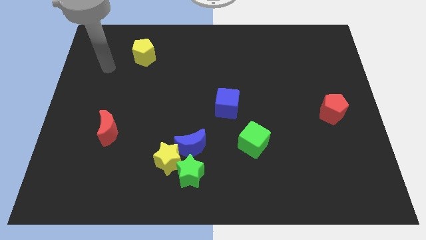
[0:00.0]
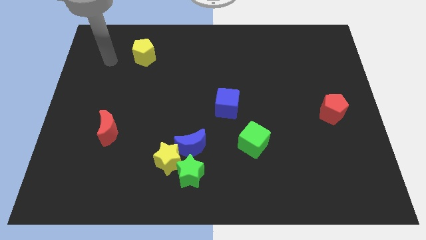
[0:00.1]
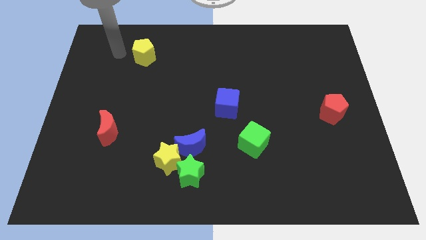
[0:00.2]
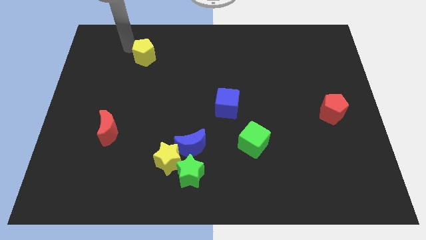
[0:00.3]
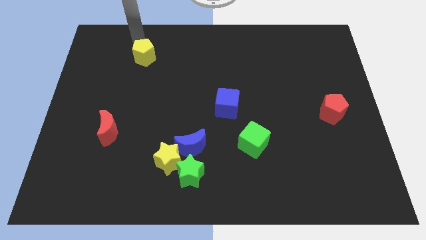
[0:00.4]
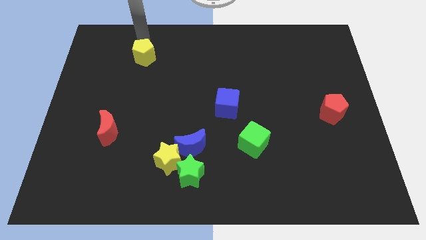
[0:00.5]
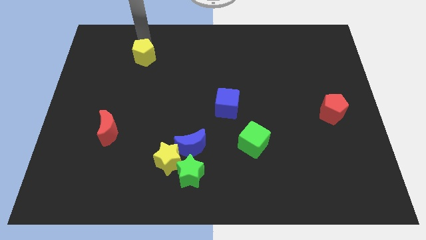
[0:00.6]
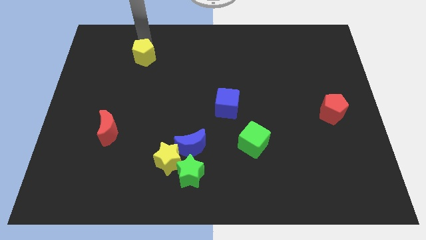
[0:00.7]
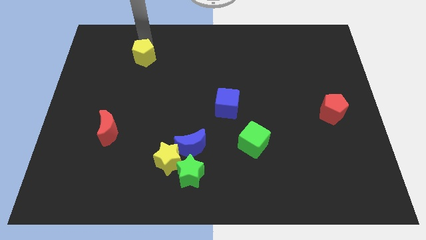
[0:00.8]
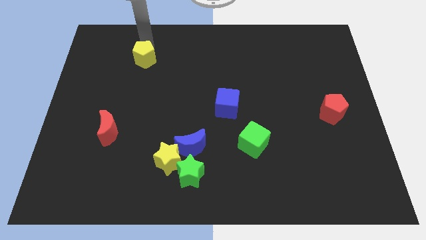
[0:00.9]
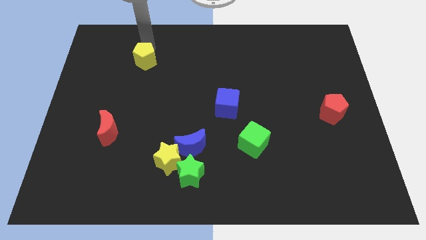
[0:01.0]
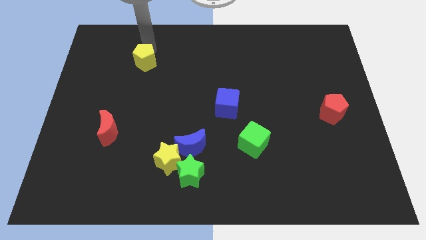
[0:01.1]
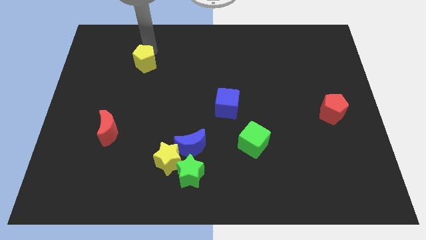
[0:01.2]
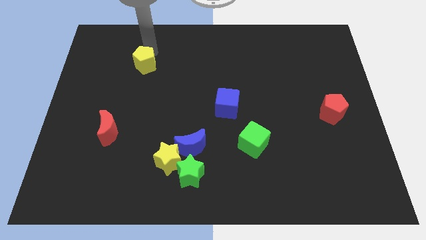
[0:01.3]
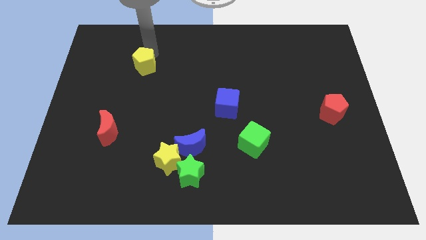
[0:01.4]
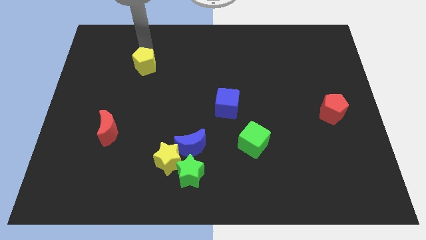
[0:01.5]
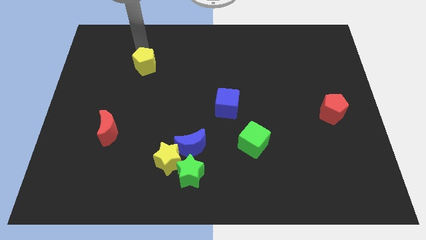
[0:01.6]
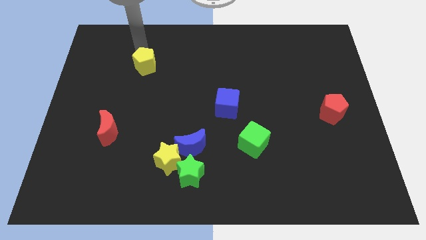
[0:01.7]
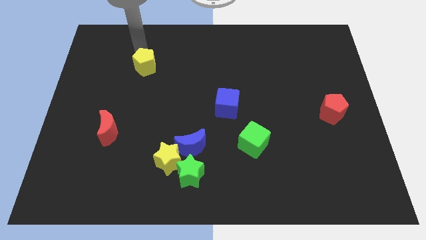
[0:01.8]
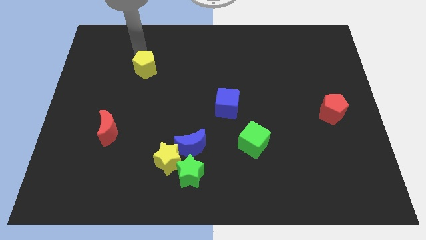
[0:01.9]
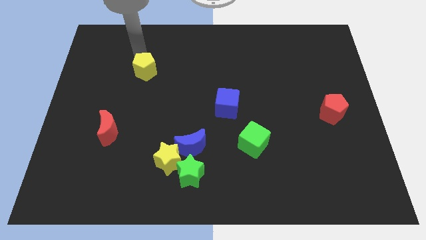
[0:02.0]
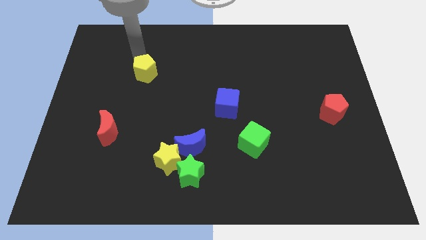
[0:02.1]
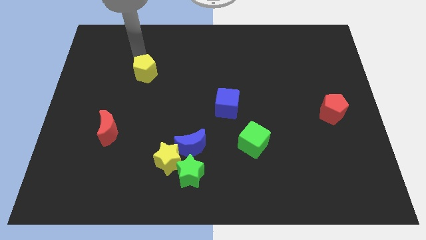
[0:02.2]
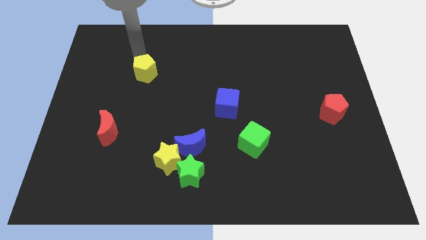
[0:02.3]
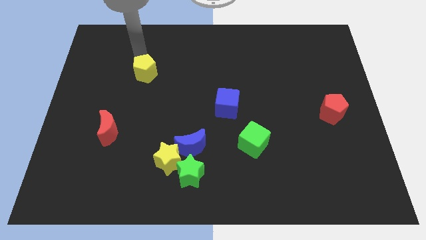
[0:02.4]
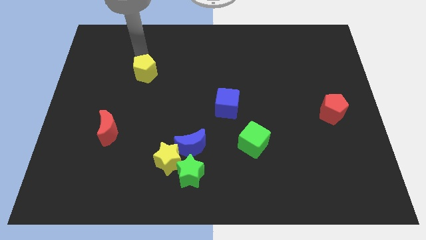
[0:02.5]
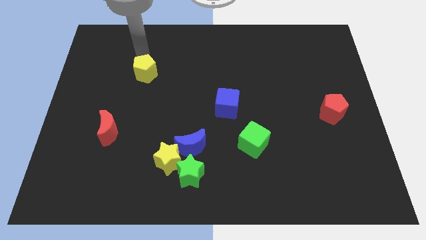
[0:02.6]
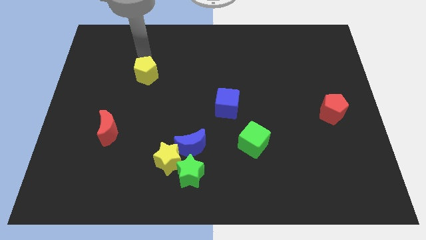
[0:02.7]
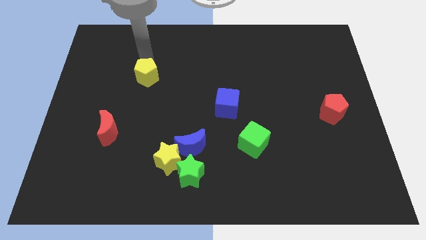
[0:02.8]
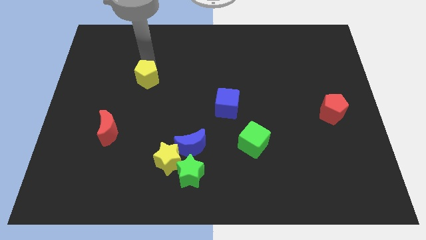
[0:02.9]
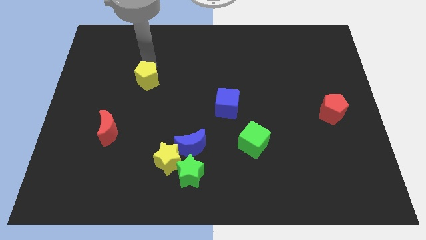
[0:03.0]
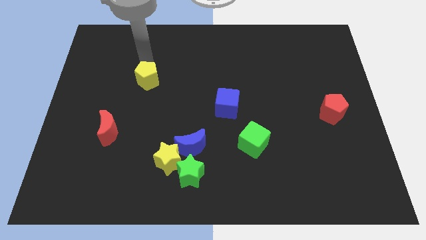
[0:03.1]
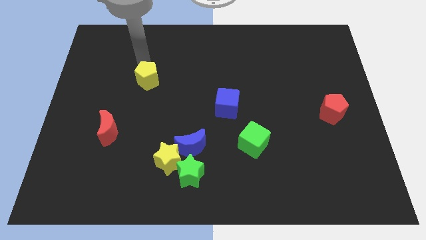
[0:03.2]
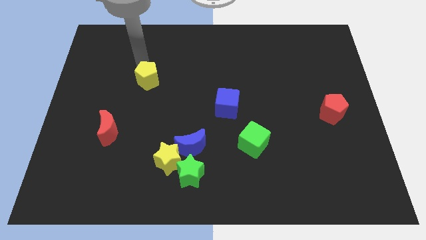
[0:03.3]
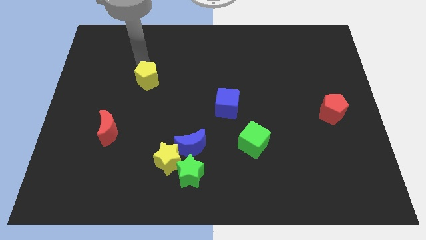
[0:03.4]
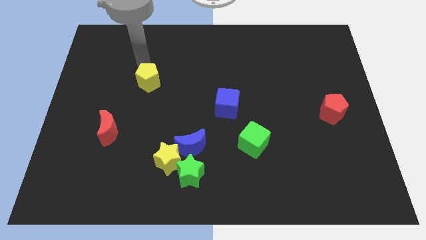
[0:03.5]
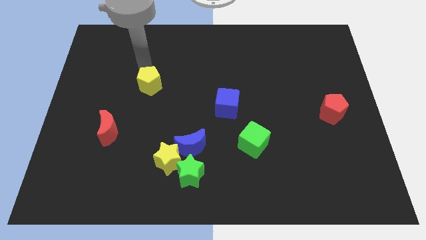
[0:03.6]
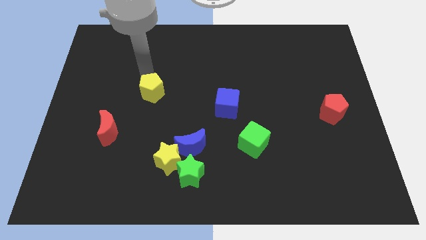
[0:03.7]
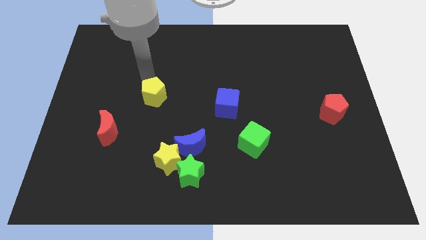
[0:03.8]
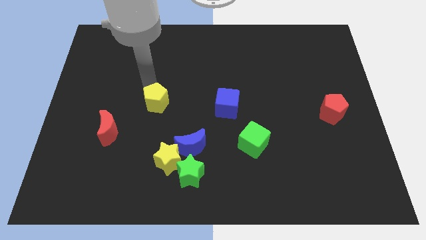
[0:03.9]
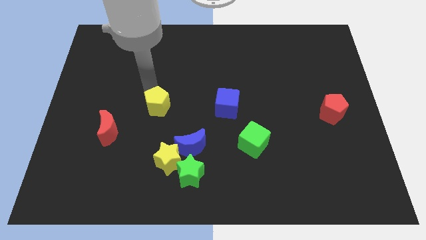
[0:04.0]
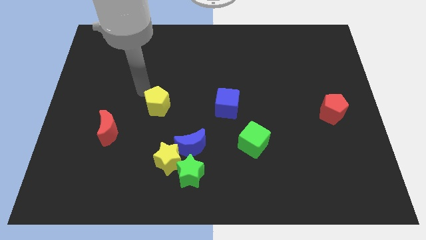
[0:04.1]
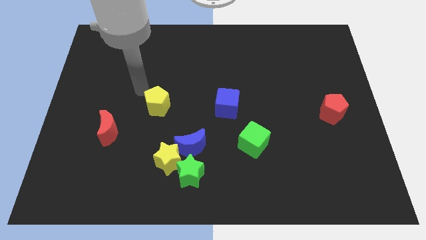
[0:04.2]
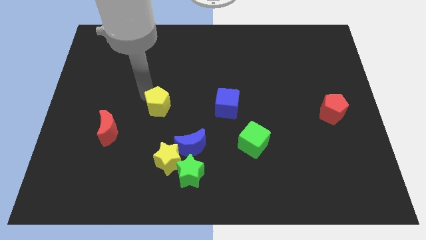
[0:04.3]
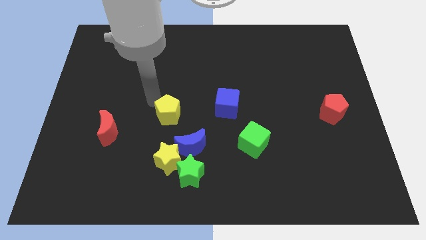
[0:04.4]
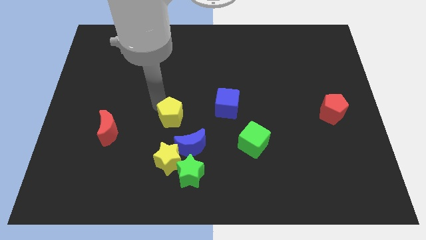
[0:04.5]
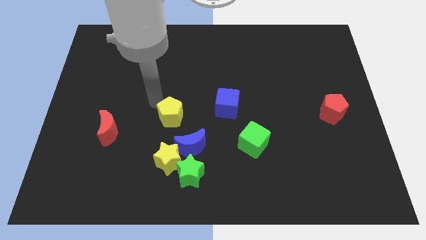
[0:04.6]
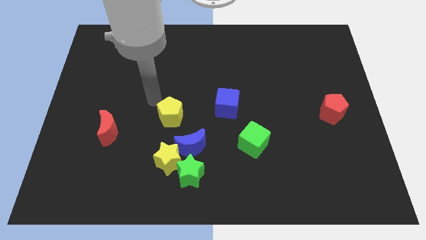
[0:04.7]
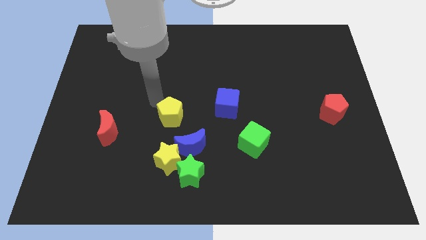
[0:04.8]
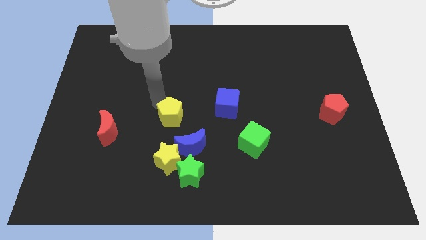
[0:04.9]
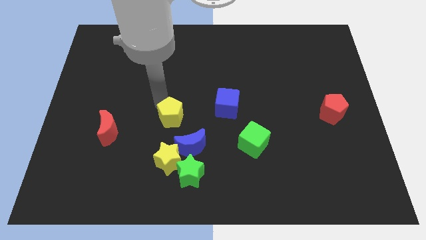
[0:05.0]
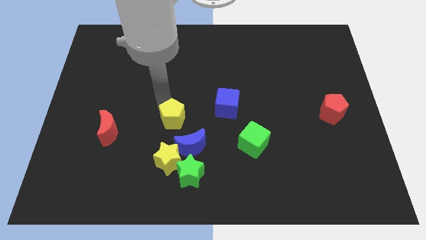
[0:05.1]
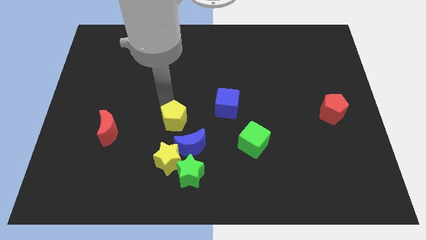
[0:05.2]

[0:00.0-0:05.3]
slide the yellow pentagon to the top of the green star

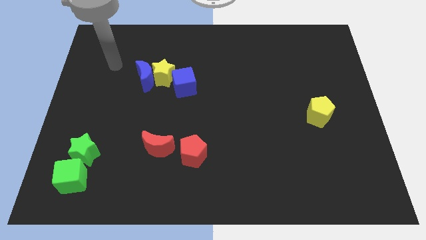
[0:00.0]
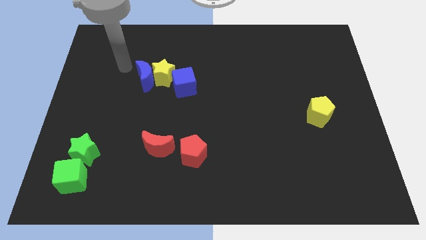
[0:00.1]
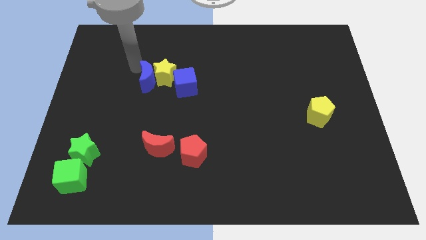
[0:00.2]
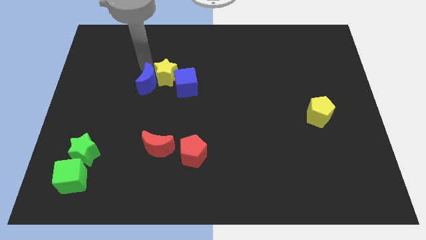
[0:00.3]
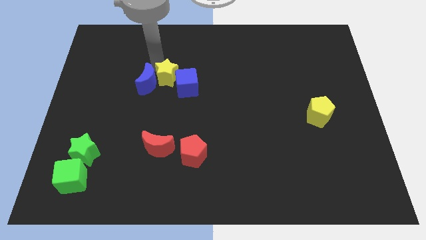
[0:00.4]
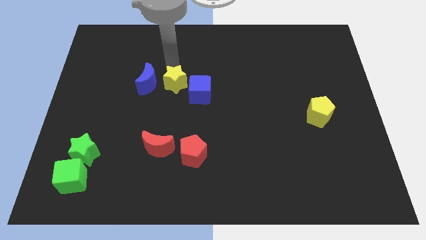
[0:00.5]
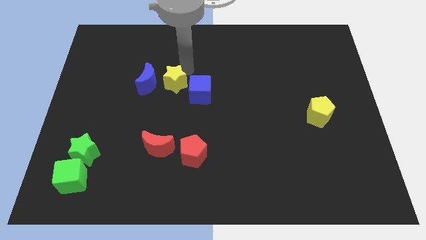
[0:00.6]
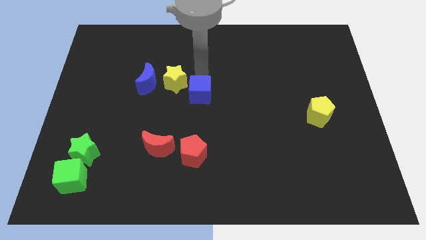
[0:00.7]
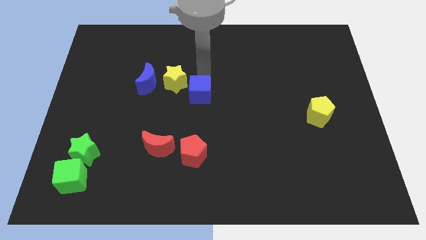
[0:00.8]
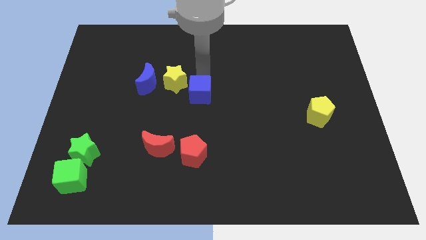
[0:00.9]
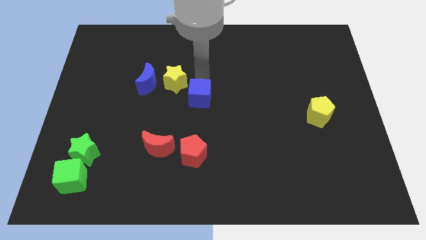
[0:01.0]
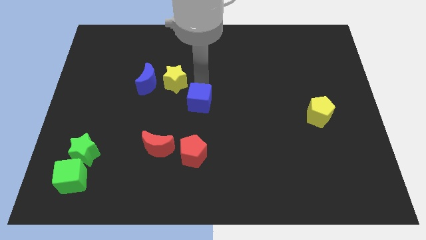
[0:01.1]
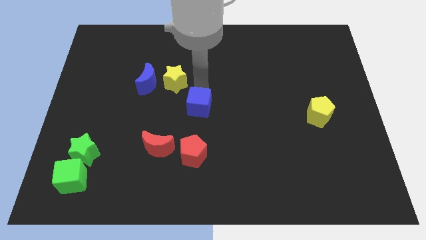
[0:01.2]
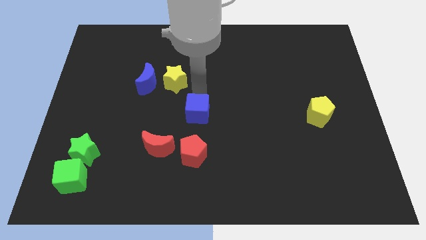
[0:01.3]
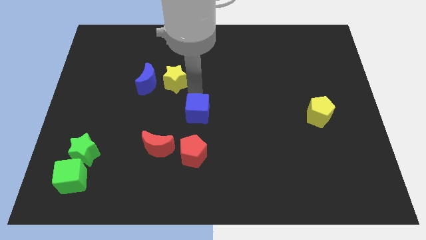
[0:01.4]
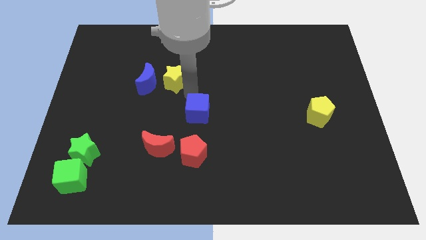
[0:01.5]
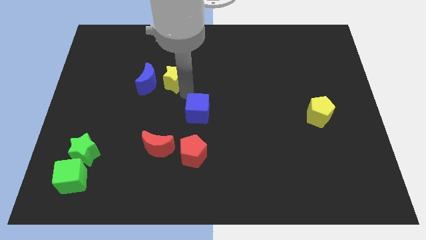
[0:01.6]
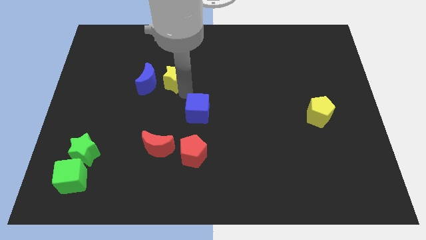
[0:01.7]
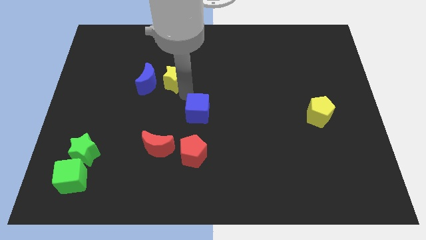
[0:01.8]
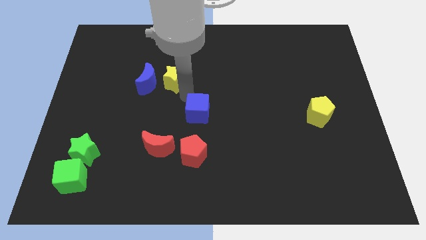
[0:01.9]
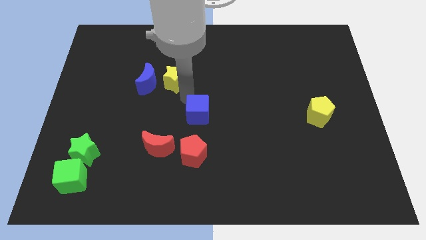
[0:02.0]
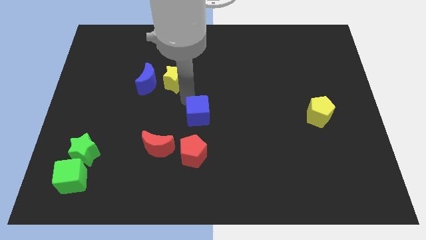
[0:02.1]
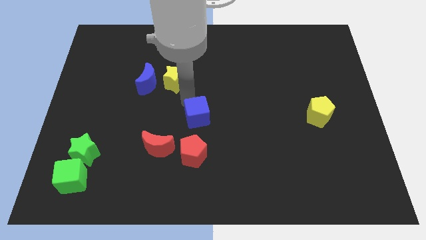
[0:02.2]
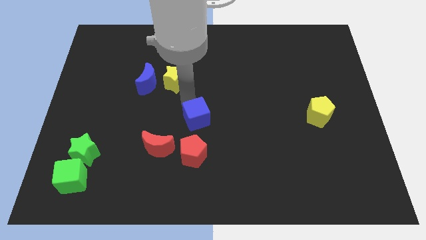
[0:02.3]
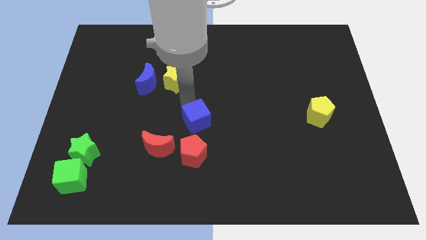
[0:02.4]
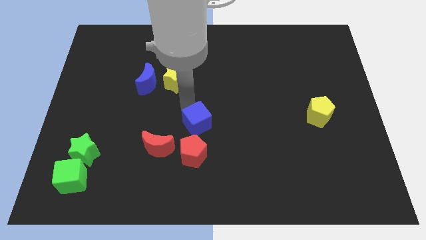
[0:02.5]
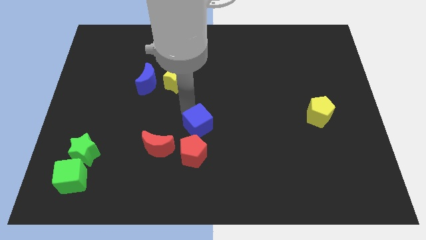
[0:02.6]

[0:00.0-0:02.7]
slide the blue cube diagonally up and to the right of the red pentagon
